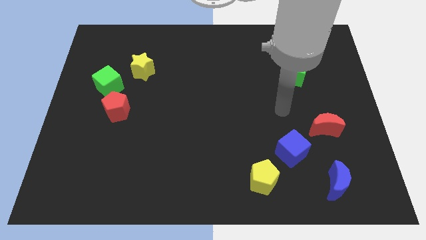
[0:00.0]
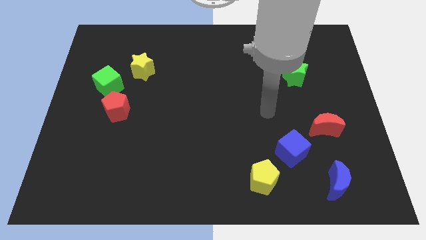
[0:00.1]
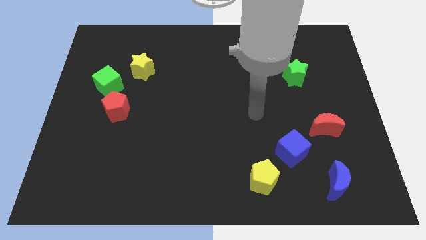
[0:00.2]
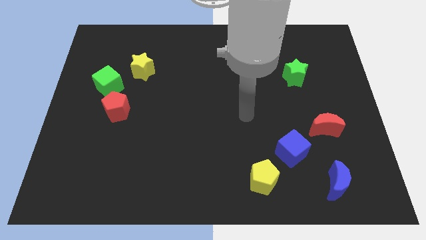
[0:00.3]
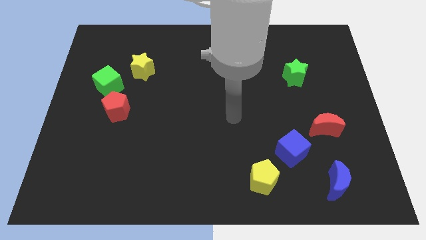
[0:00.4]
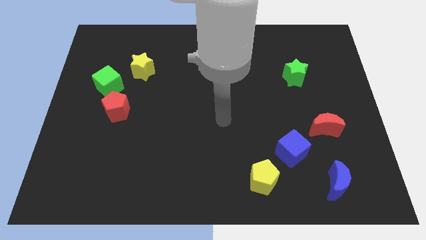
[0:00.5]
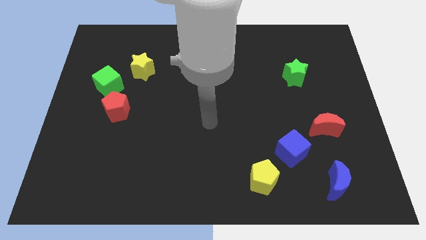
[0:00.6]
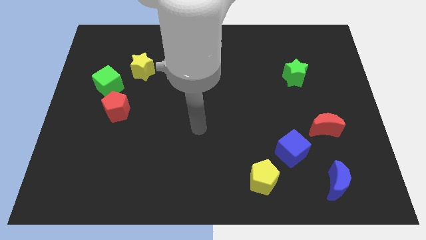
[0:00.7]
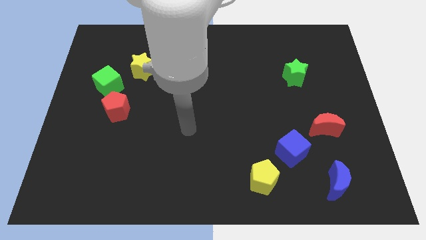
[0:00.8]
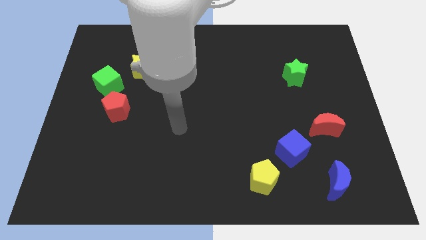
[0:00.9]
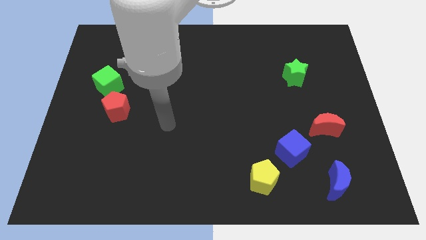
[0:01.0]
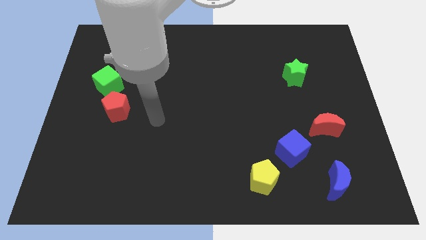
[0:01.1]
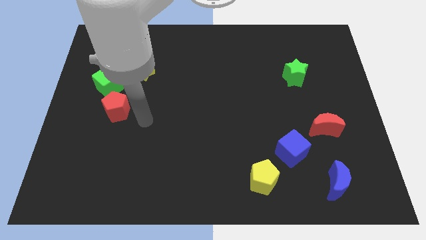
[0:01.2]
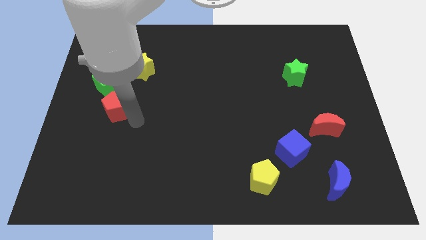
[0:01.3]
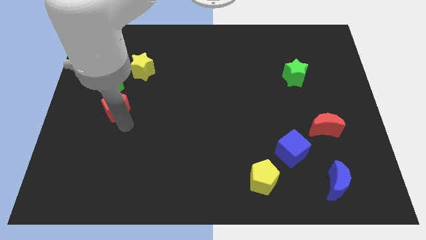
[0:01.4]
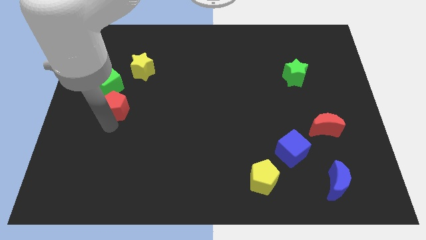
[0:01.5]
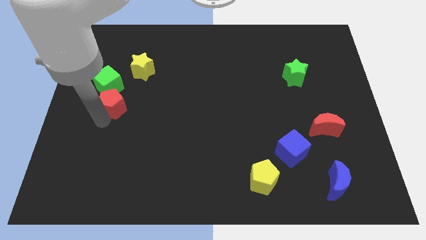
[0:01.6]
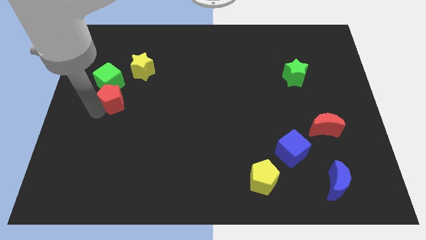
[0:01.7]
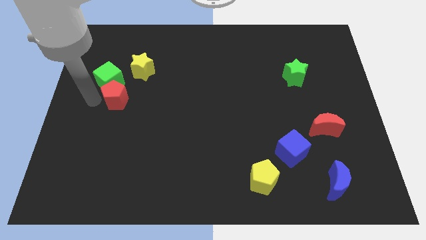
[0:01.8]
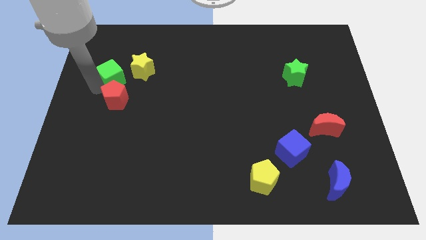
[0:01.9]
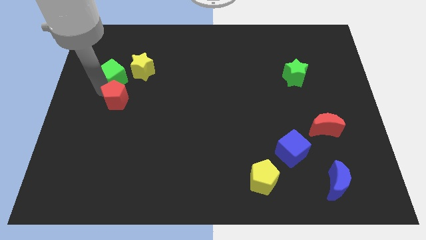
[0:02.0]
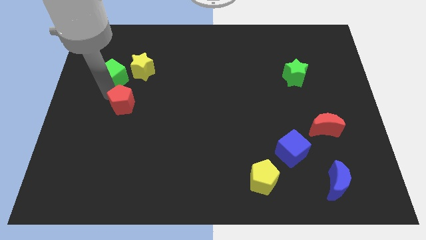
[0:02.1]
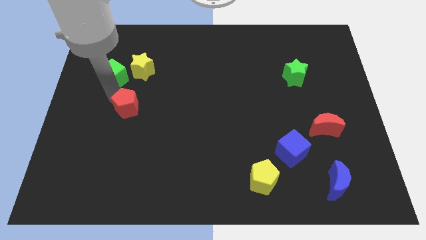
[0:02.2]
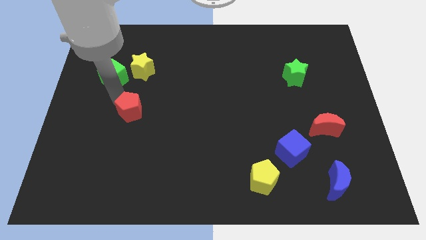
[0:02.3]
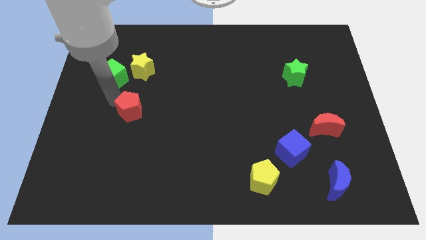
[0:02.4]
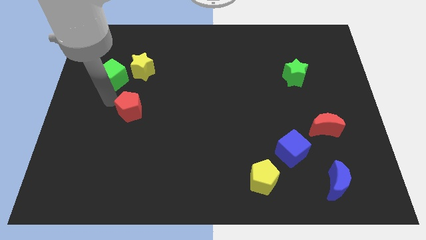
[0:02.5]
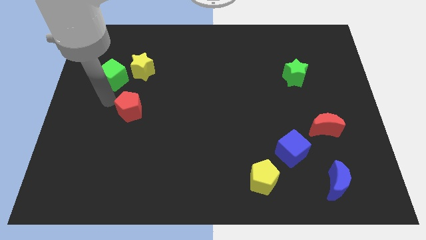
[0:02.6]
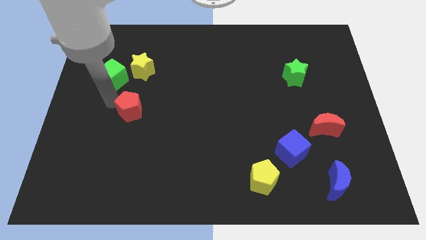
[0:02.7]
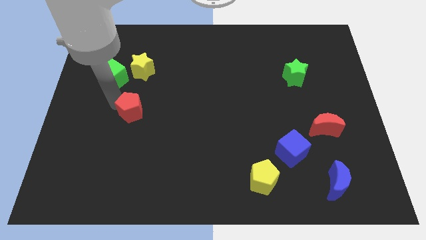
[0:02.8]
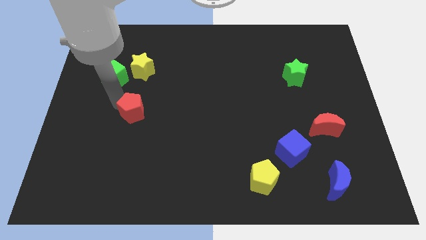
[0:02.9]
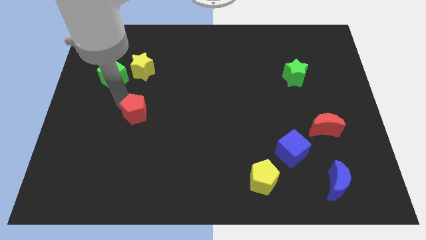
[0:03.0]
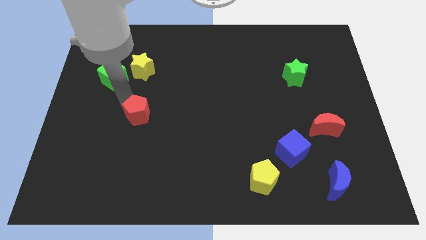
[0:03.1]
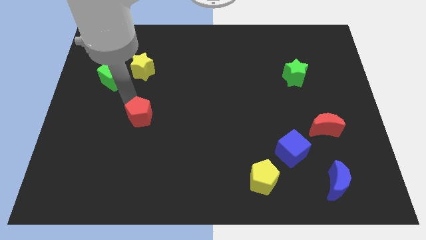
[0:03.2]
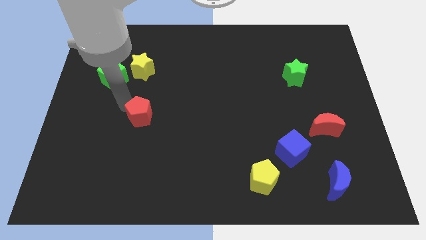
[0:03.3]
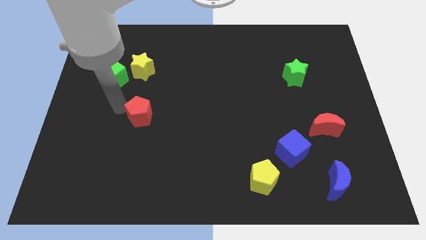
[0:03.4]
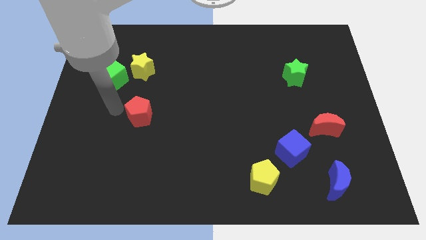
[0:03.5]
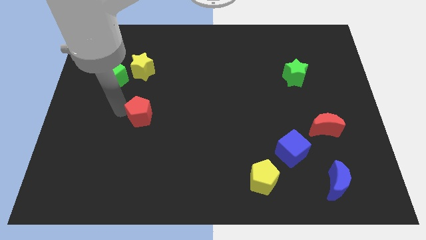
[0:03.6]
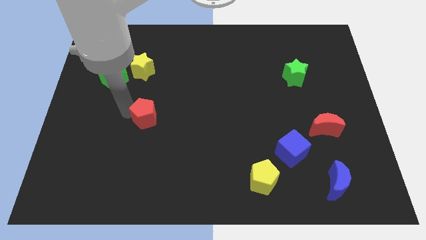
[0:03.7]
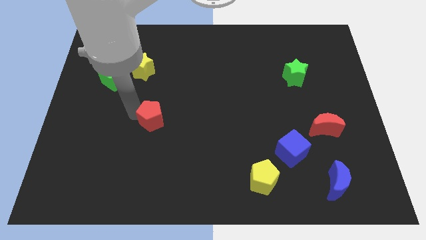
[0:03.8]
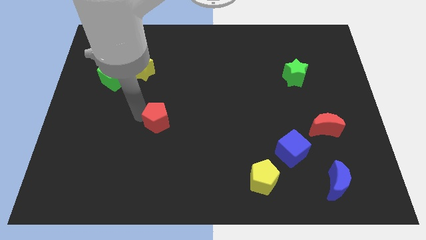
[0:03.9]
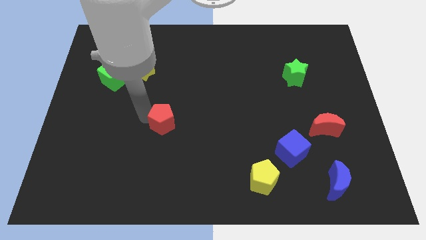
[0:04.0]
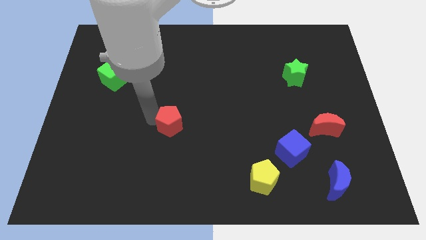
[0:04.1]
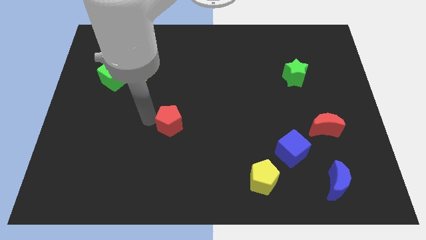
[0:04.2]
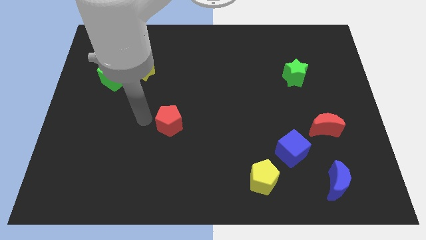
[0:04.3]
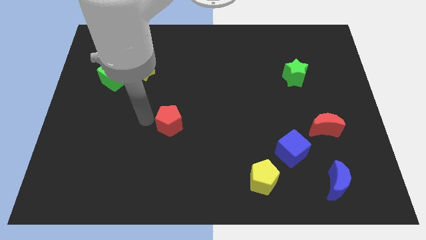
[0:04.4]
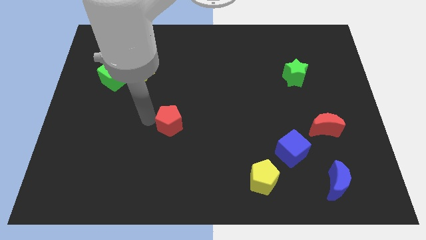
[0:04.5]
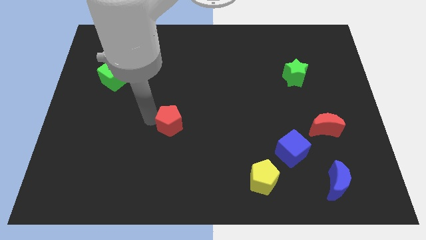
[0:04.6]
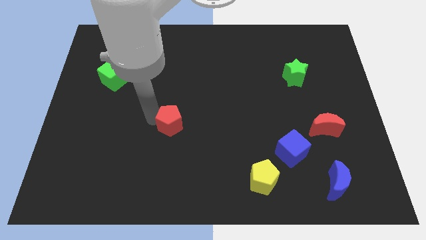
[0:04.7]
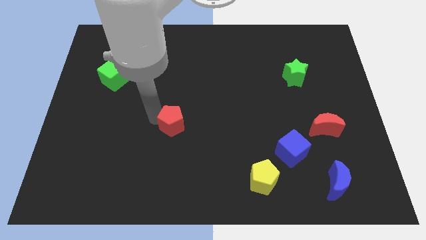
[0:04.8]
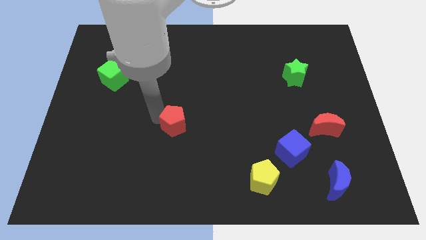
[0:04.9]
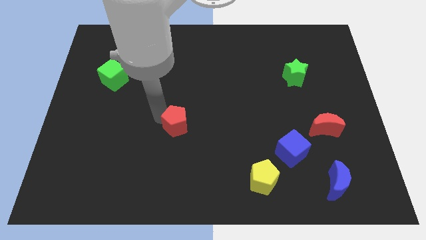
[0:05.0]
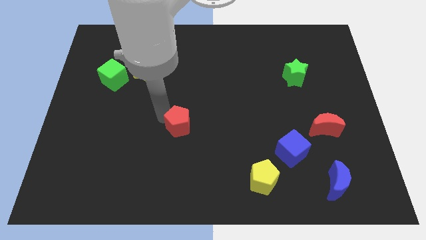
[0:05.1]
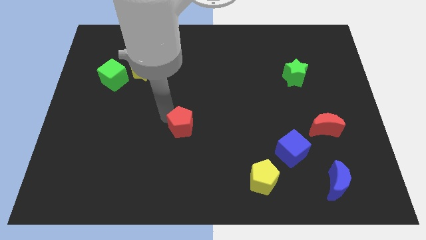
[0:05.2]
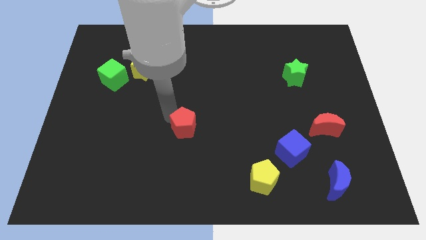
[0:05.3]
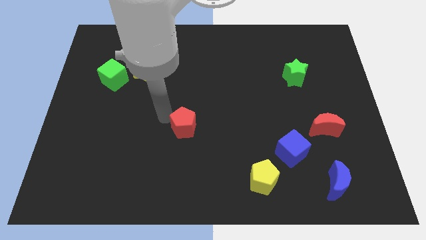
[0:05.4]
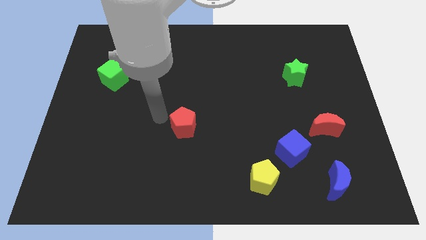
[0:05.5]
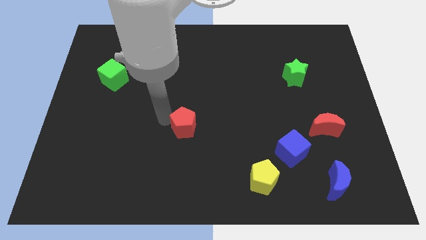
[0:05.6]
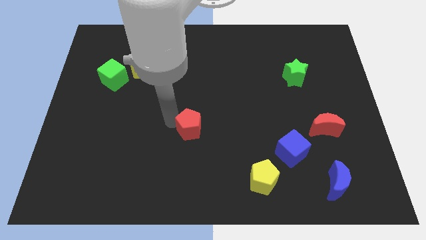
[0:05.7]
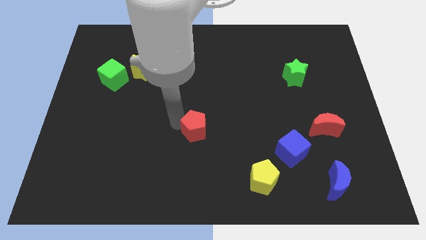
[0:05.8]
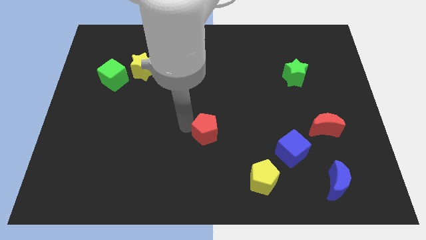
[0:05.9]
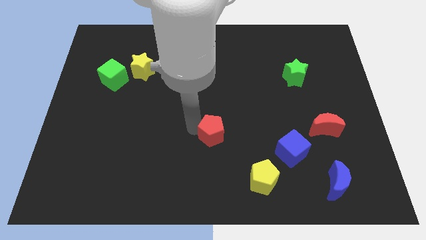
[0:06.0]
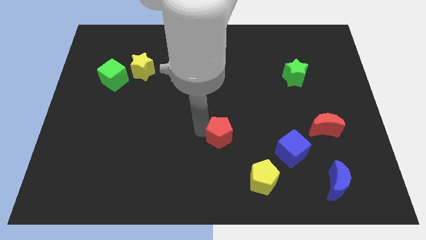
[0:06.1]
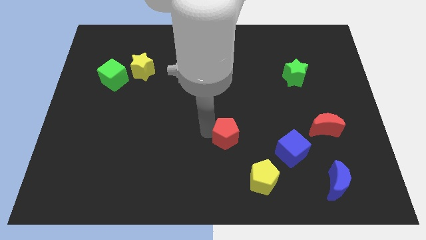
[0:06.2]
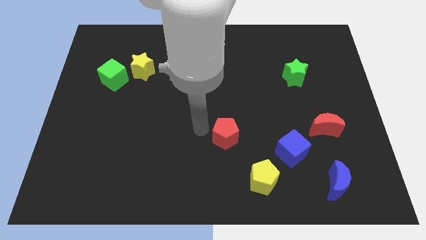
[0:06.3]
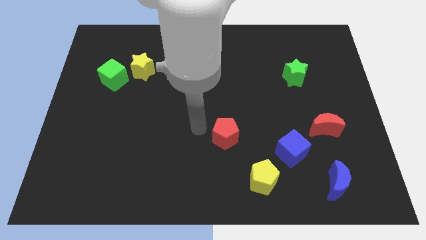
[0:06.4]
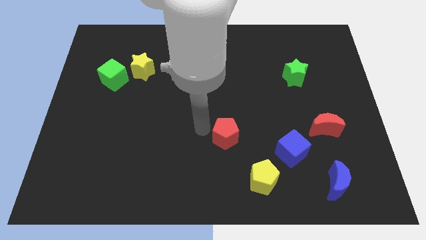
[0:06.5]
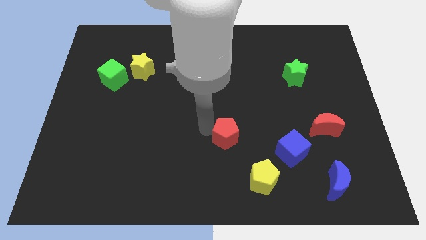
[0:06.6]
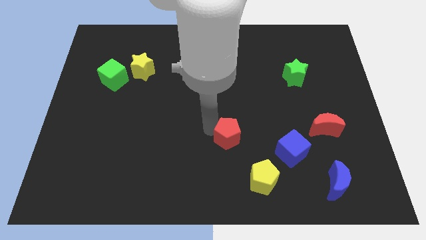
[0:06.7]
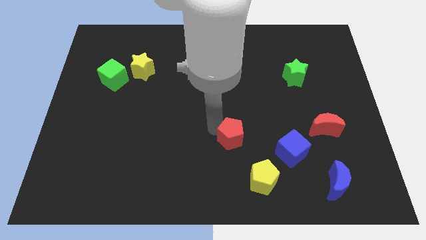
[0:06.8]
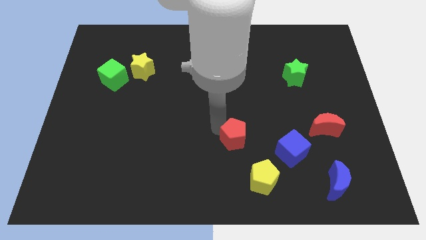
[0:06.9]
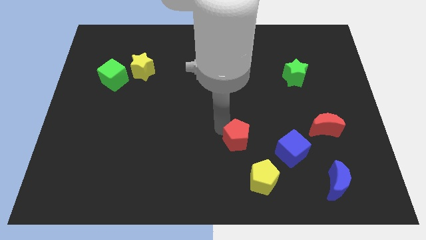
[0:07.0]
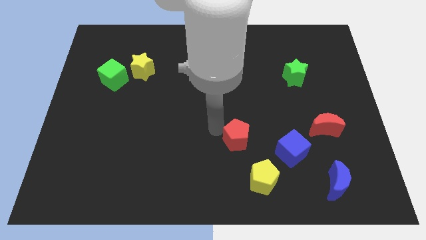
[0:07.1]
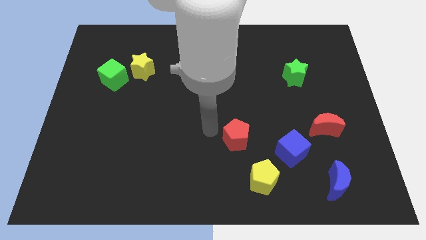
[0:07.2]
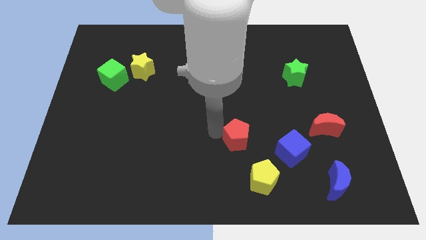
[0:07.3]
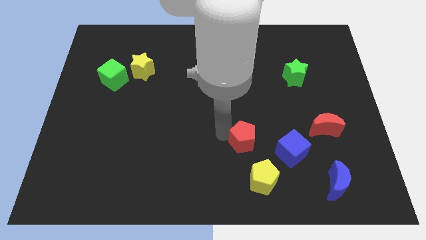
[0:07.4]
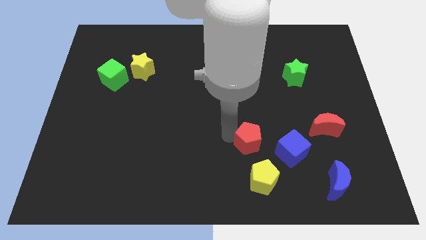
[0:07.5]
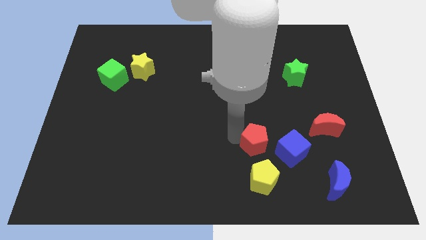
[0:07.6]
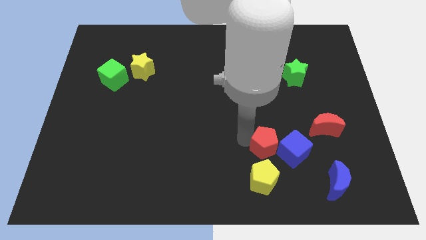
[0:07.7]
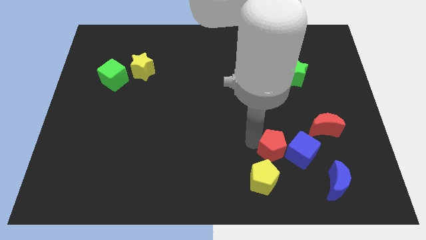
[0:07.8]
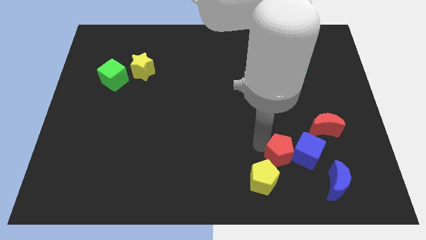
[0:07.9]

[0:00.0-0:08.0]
slide the red pentagon close to the blue cube
